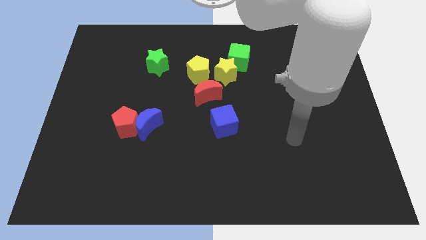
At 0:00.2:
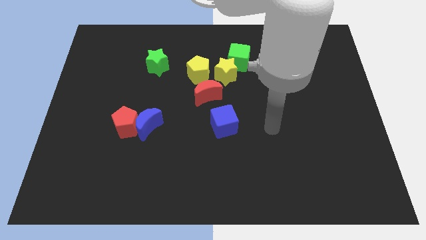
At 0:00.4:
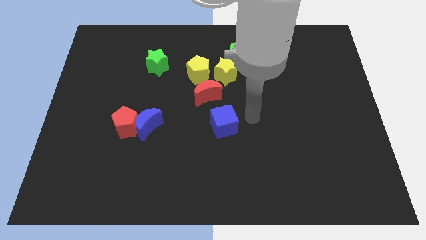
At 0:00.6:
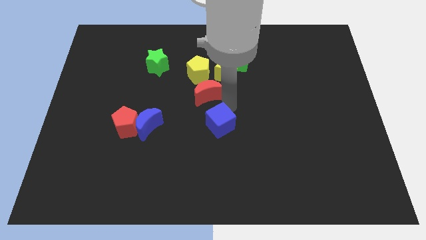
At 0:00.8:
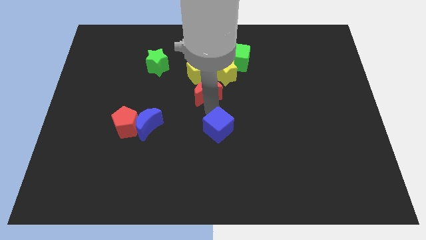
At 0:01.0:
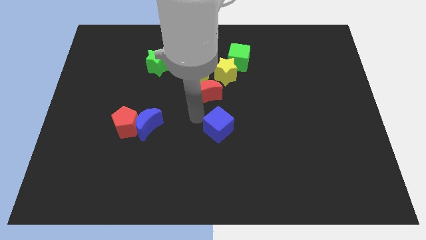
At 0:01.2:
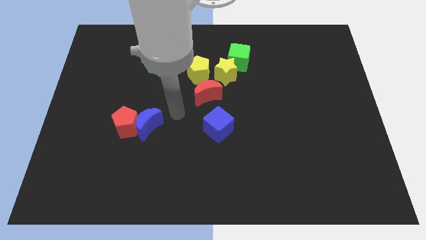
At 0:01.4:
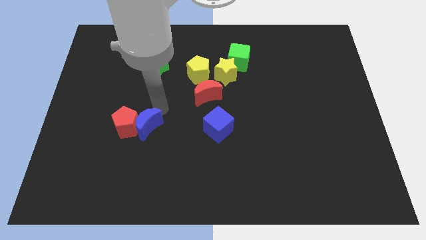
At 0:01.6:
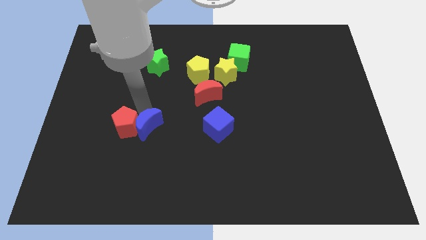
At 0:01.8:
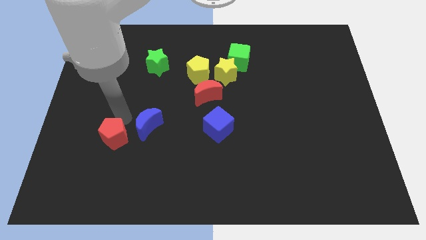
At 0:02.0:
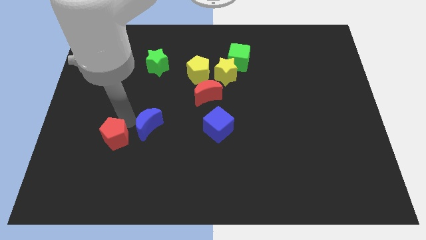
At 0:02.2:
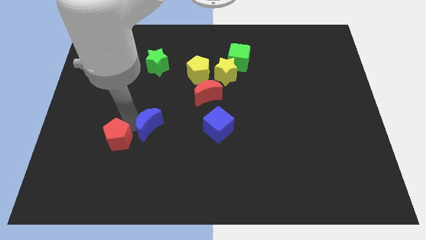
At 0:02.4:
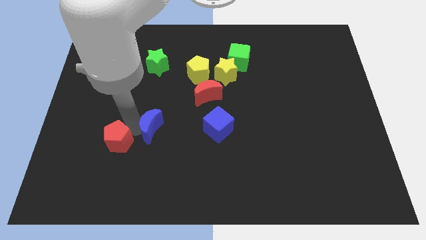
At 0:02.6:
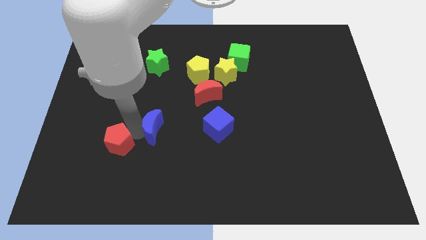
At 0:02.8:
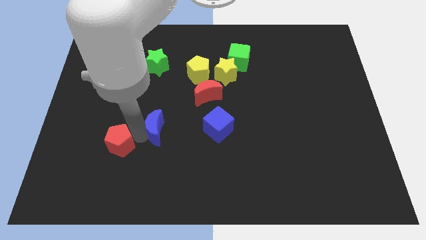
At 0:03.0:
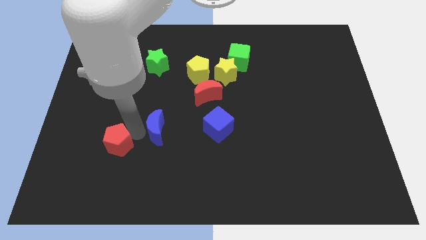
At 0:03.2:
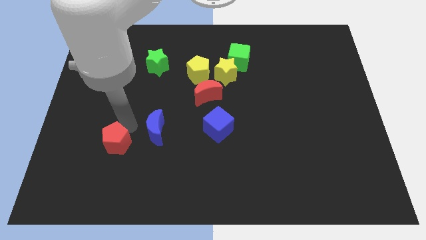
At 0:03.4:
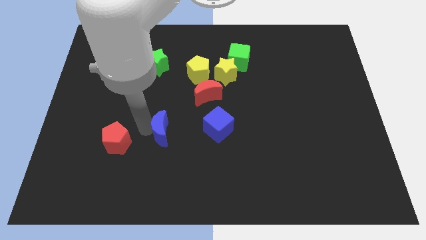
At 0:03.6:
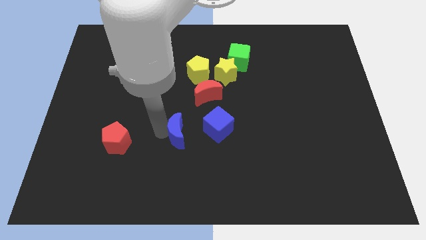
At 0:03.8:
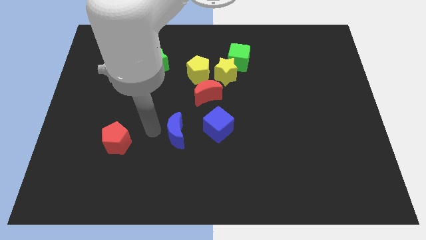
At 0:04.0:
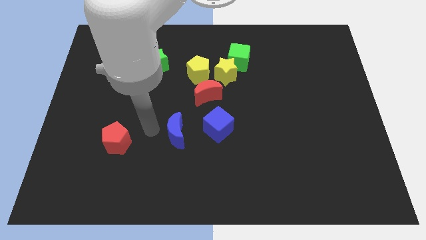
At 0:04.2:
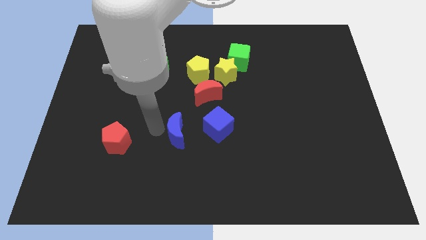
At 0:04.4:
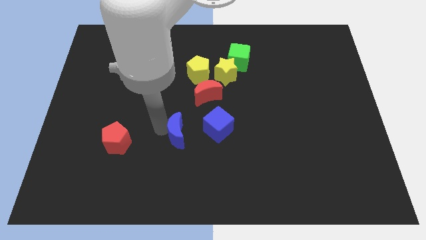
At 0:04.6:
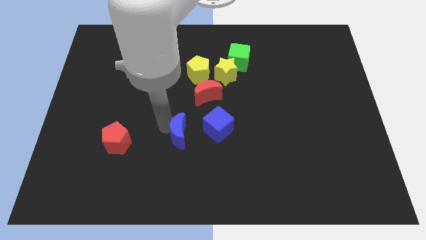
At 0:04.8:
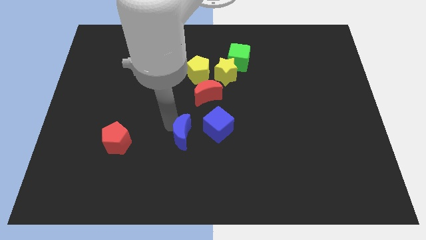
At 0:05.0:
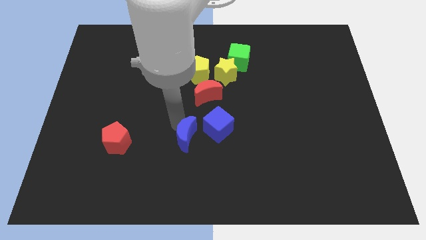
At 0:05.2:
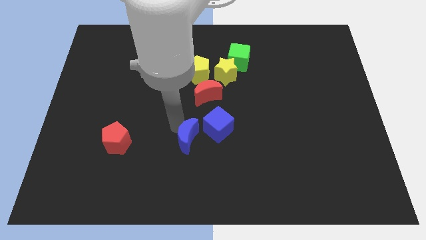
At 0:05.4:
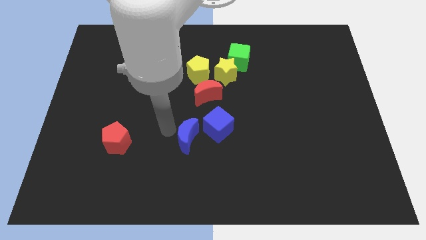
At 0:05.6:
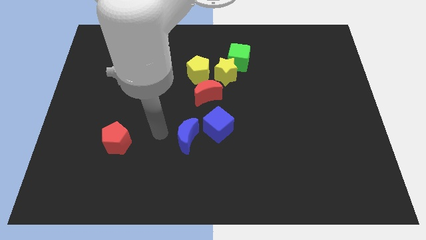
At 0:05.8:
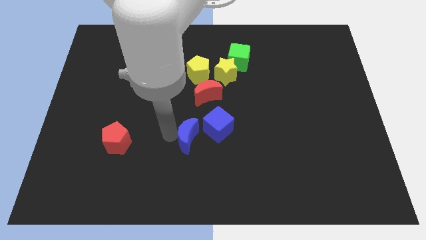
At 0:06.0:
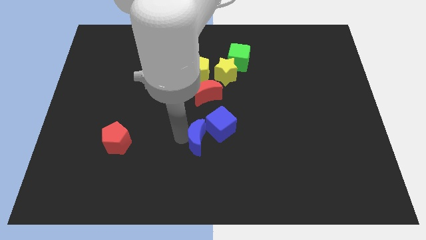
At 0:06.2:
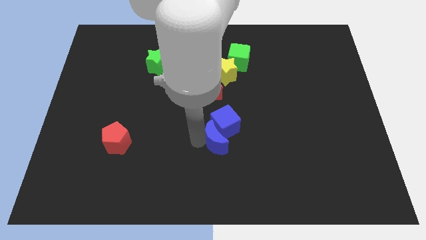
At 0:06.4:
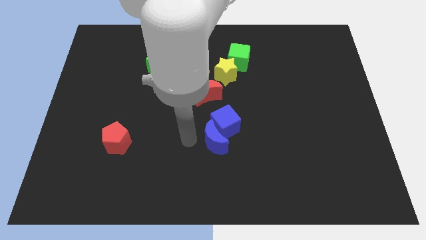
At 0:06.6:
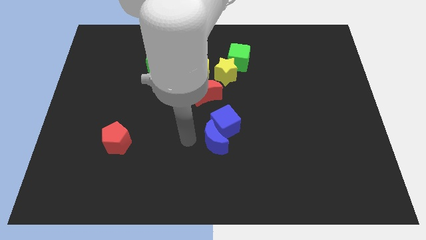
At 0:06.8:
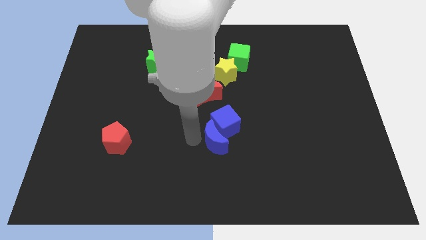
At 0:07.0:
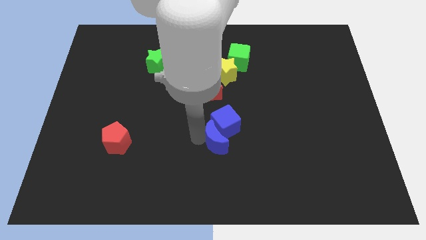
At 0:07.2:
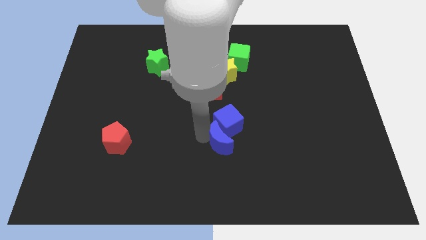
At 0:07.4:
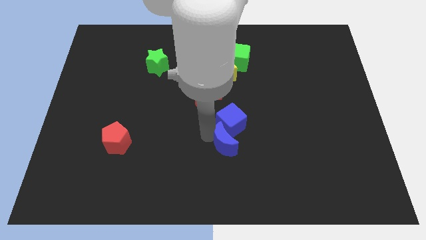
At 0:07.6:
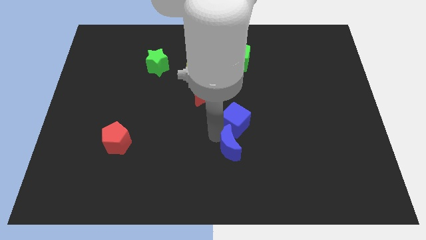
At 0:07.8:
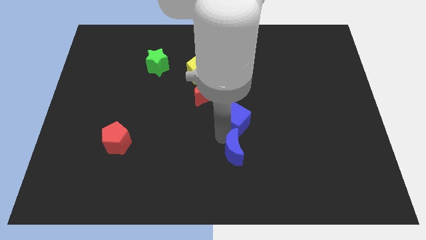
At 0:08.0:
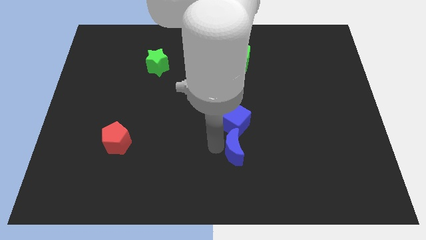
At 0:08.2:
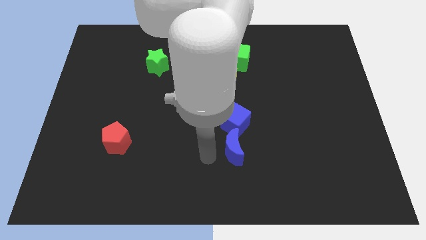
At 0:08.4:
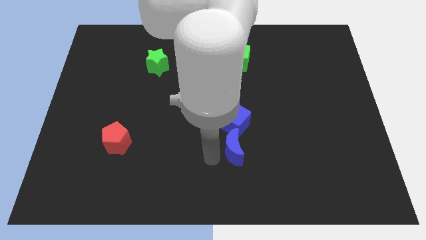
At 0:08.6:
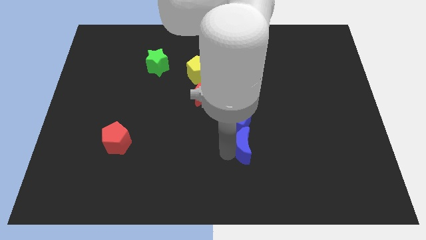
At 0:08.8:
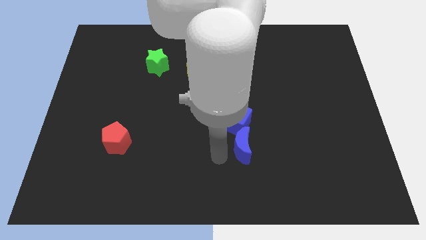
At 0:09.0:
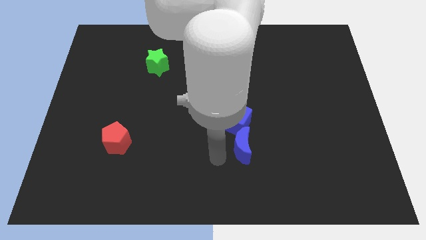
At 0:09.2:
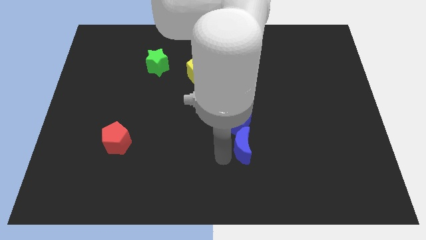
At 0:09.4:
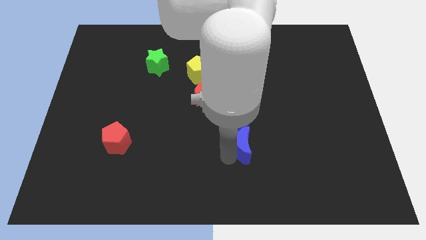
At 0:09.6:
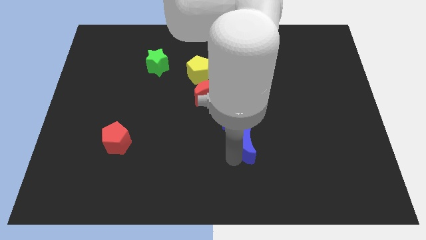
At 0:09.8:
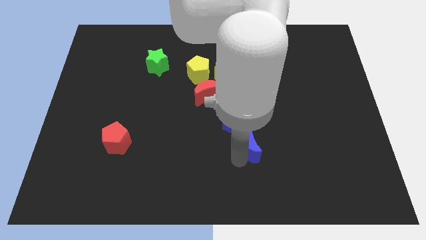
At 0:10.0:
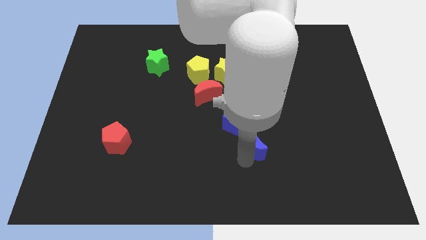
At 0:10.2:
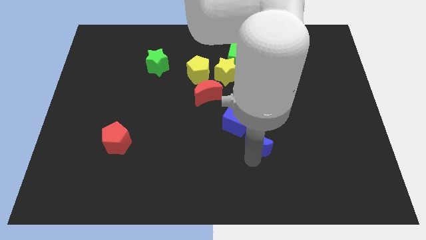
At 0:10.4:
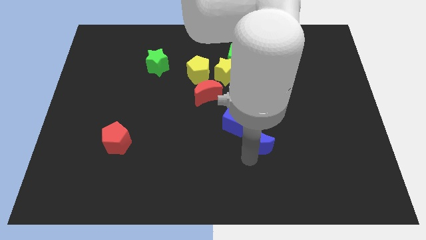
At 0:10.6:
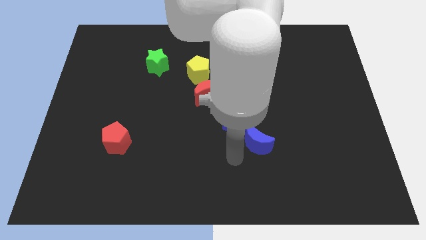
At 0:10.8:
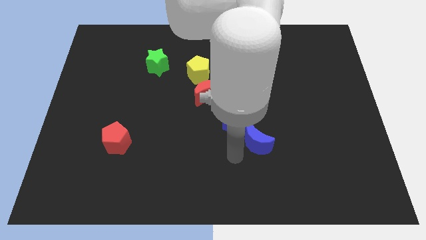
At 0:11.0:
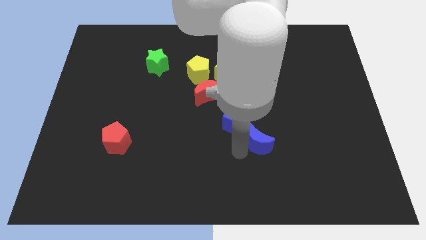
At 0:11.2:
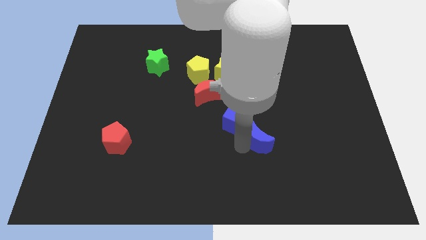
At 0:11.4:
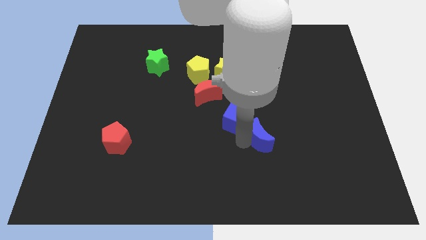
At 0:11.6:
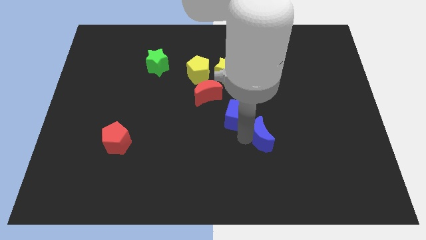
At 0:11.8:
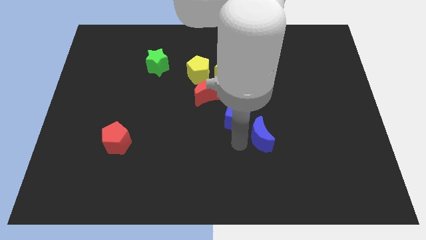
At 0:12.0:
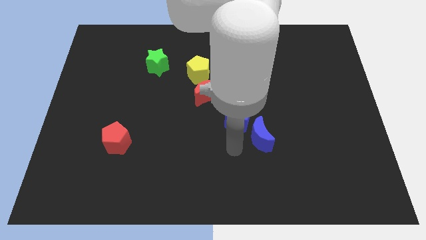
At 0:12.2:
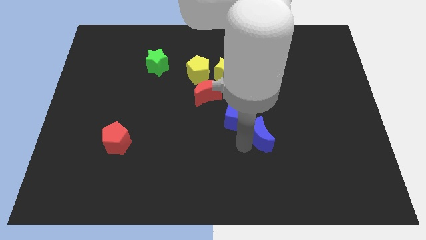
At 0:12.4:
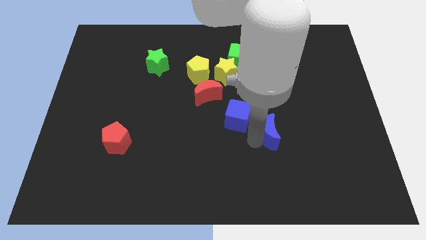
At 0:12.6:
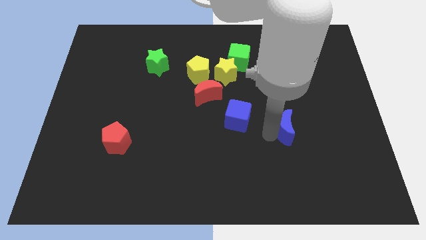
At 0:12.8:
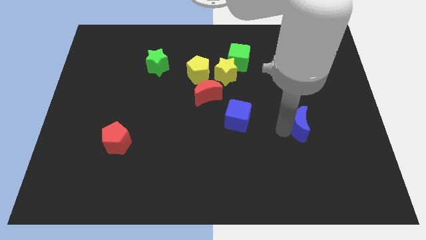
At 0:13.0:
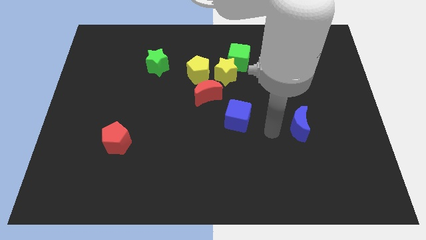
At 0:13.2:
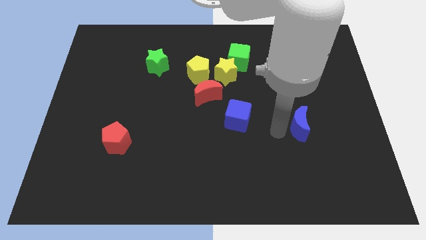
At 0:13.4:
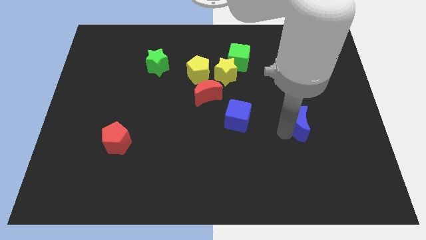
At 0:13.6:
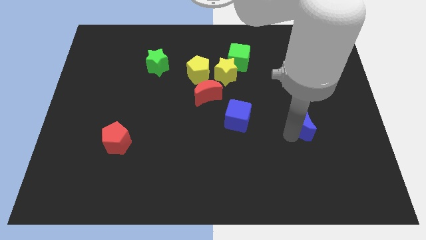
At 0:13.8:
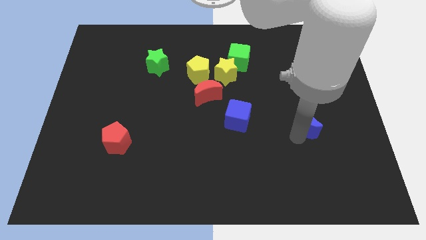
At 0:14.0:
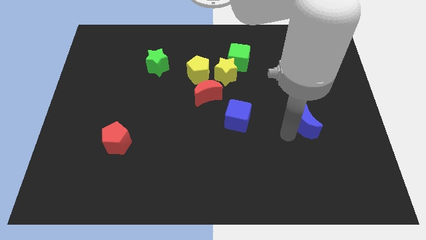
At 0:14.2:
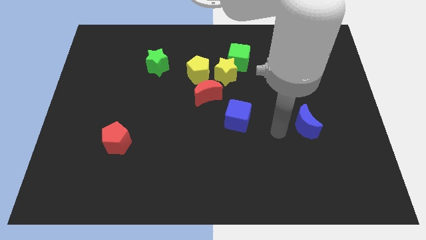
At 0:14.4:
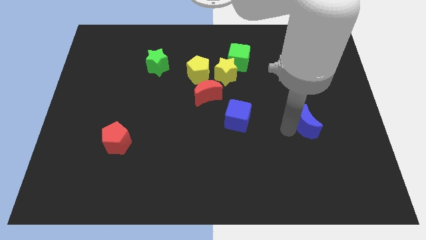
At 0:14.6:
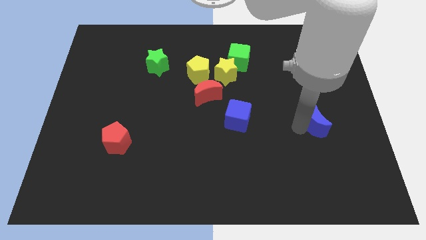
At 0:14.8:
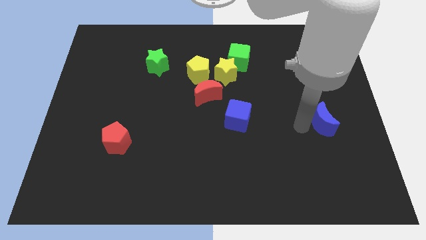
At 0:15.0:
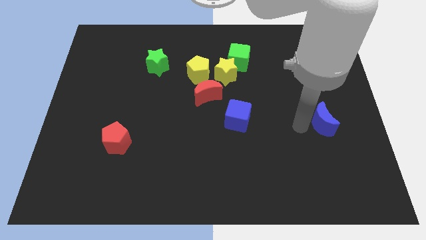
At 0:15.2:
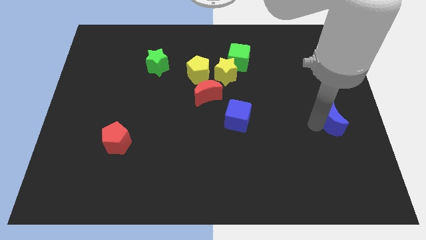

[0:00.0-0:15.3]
push the blue moon to the right side of the board
